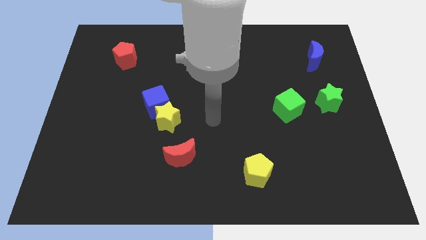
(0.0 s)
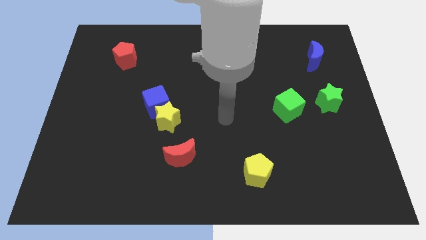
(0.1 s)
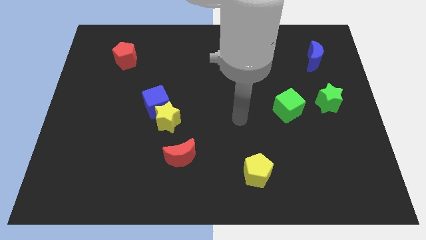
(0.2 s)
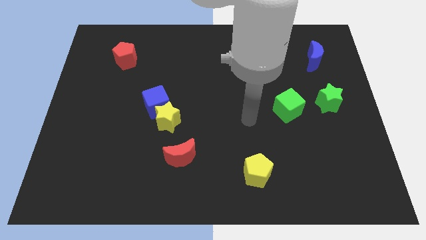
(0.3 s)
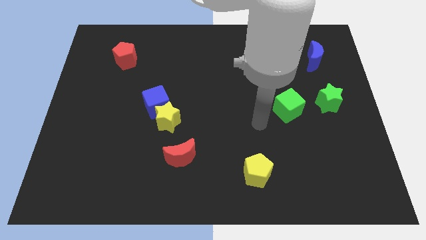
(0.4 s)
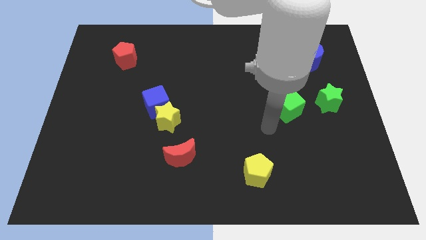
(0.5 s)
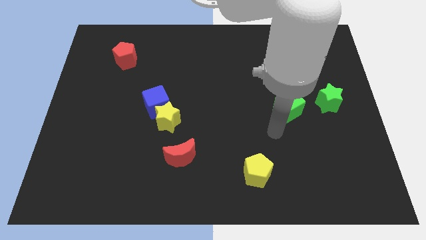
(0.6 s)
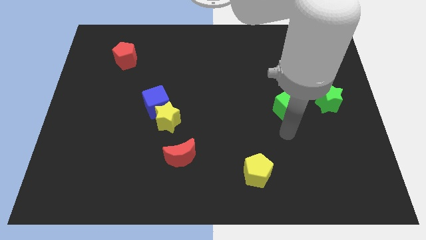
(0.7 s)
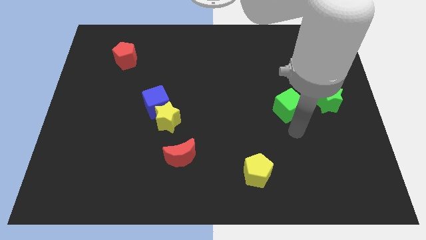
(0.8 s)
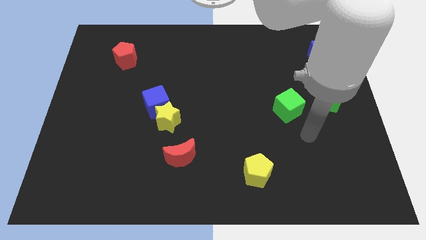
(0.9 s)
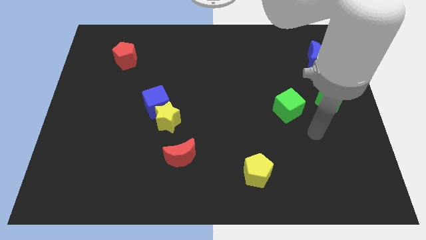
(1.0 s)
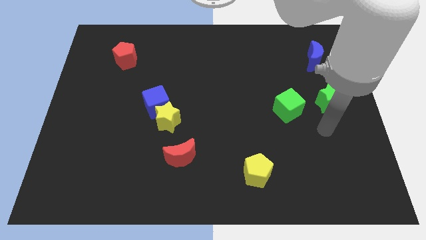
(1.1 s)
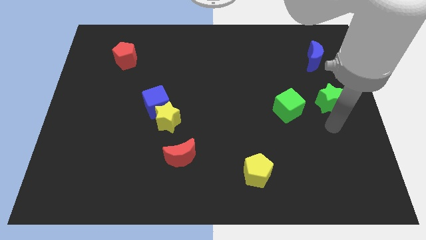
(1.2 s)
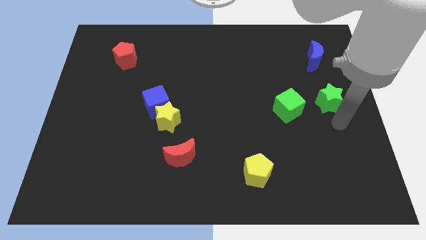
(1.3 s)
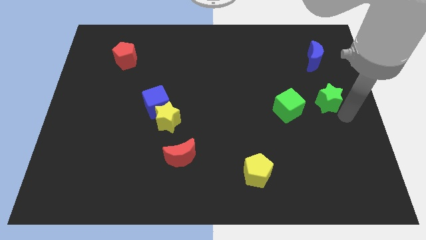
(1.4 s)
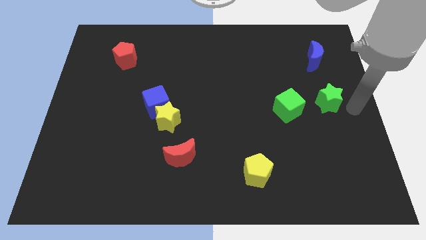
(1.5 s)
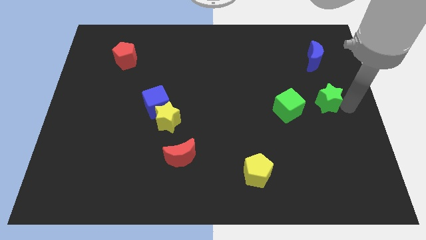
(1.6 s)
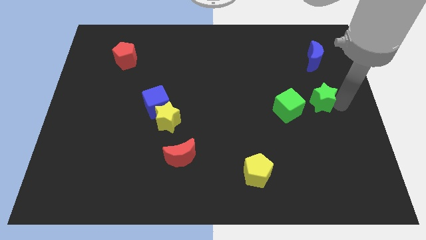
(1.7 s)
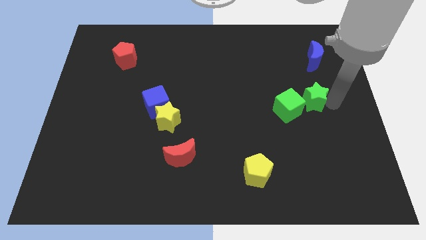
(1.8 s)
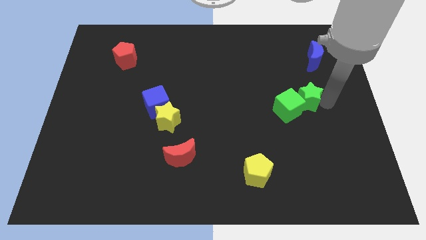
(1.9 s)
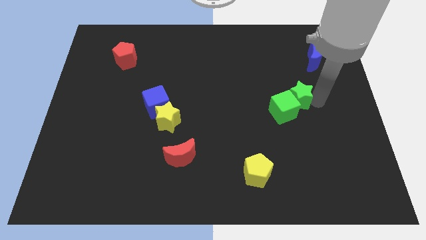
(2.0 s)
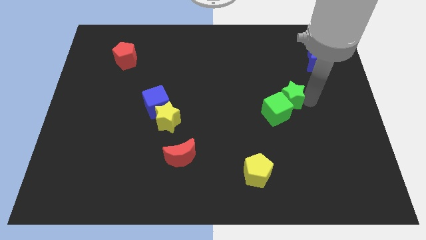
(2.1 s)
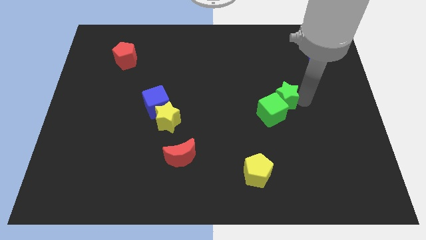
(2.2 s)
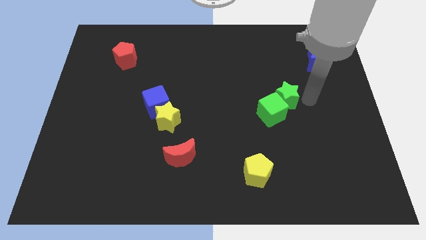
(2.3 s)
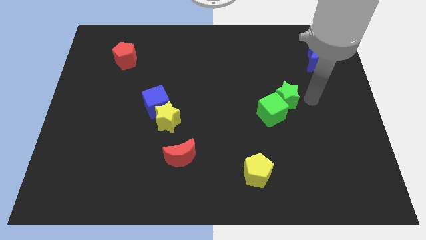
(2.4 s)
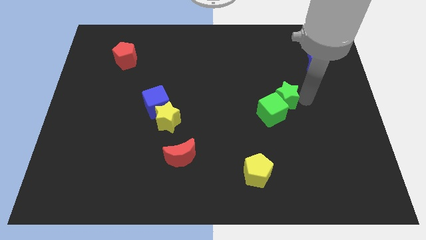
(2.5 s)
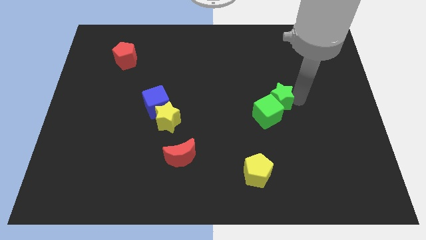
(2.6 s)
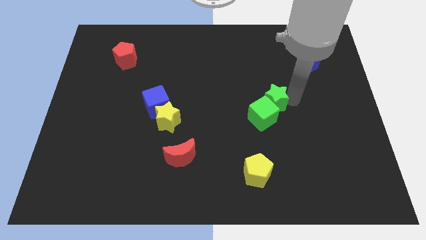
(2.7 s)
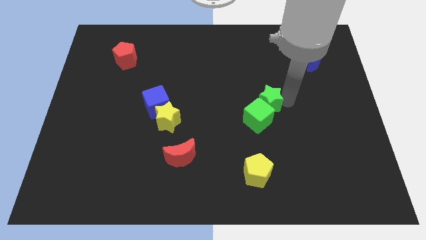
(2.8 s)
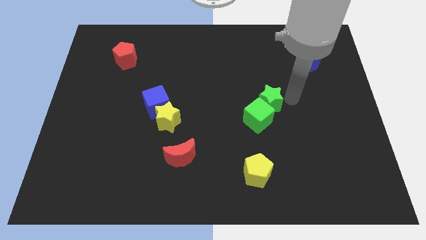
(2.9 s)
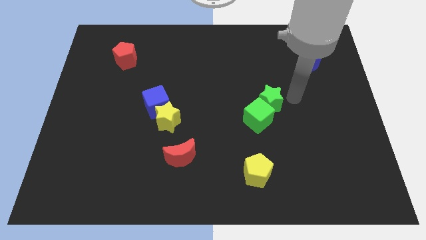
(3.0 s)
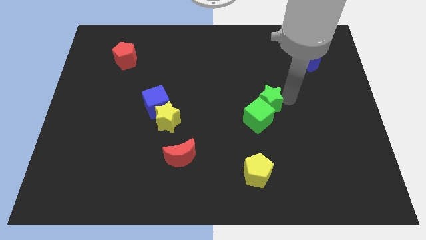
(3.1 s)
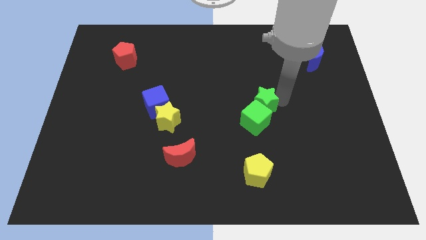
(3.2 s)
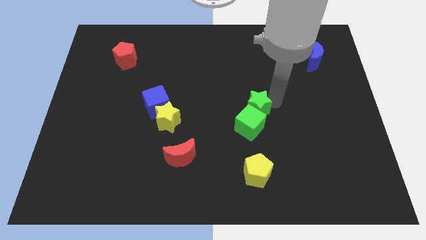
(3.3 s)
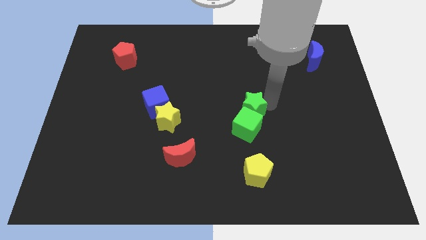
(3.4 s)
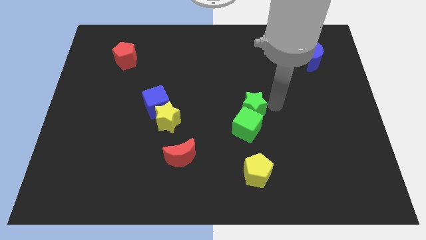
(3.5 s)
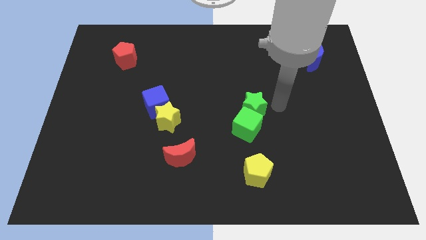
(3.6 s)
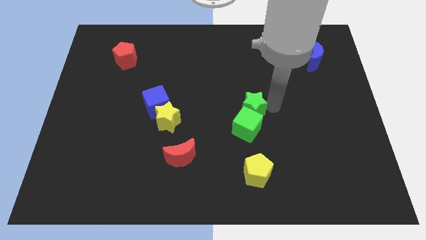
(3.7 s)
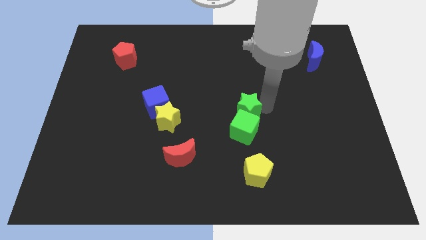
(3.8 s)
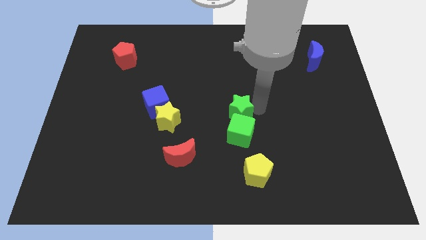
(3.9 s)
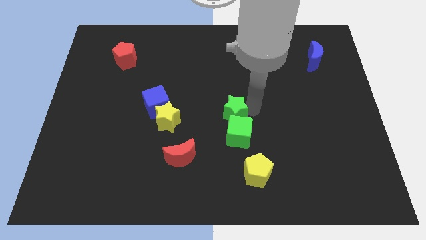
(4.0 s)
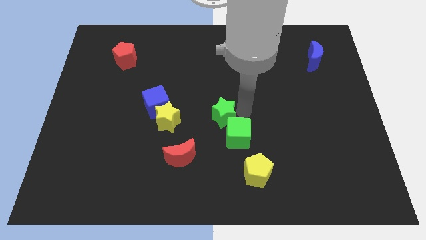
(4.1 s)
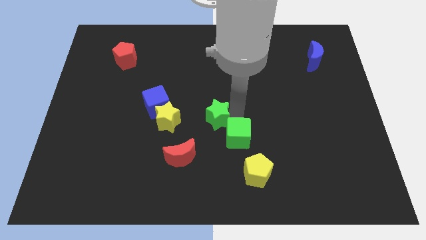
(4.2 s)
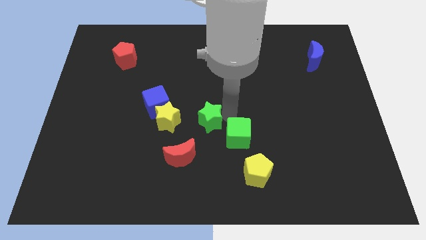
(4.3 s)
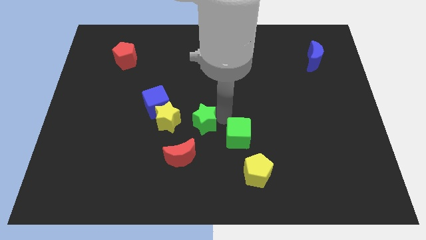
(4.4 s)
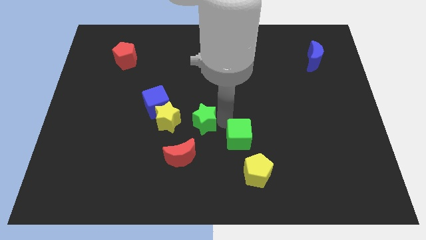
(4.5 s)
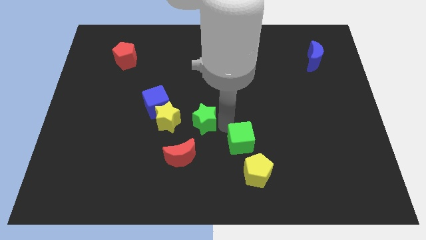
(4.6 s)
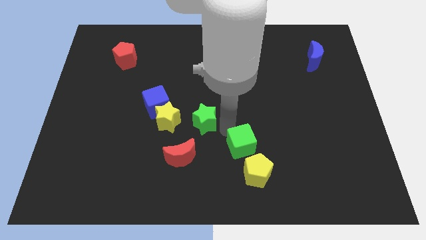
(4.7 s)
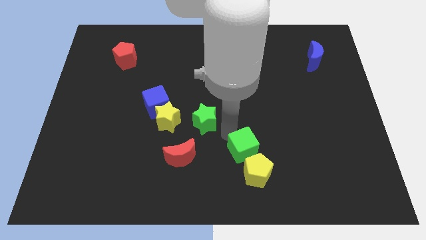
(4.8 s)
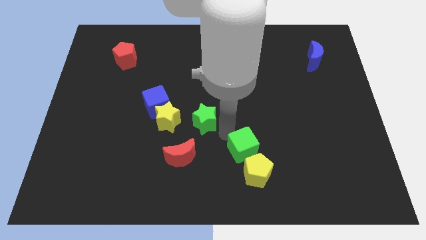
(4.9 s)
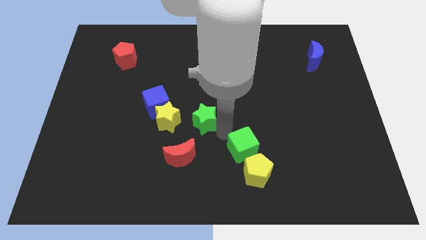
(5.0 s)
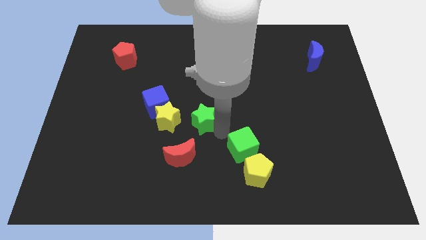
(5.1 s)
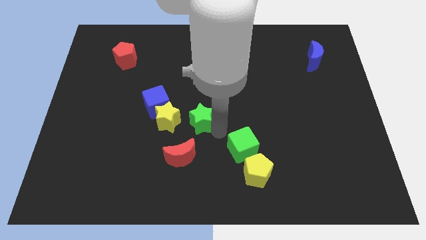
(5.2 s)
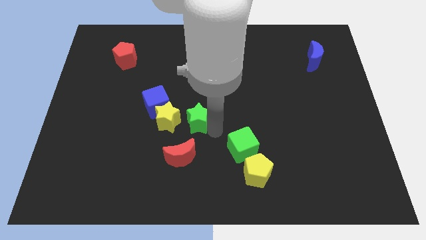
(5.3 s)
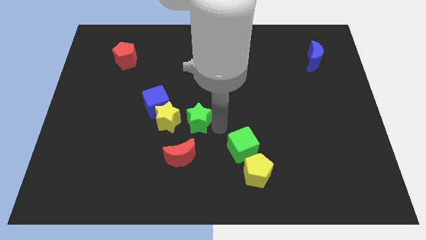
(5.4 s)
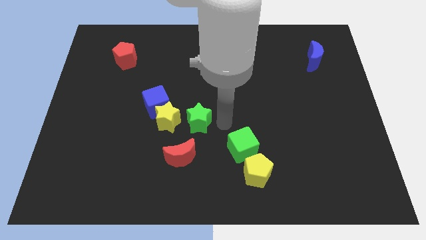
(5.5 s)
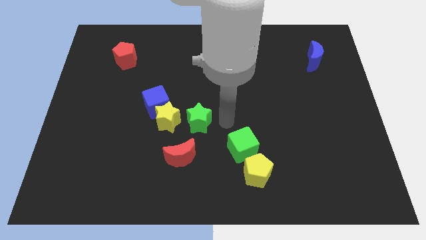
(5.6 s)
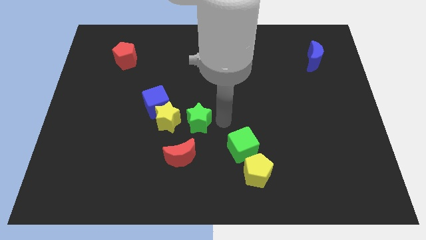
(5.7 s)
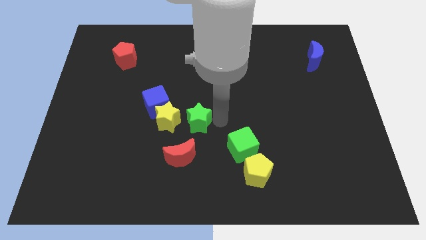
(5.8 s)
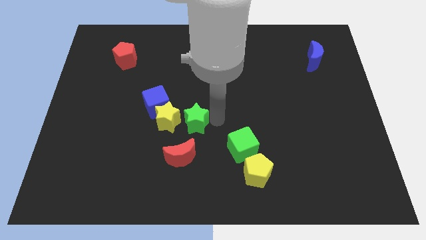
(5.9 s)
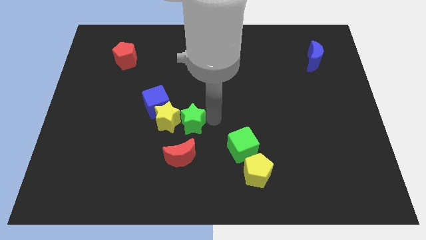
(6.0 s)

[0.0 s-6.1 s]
push the green star next to the yellow star

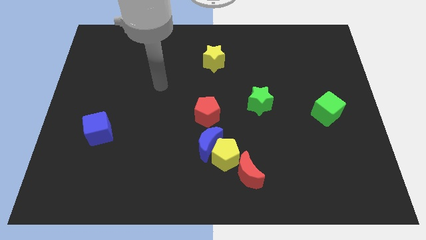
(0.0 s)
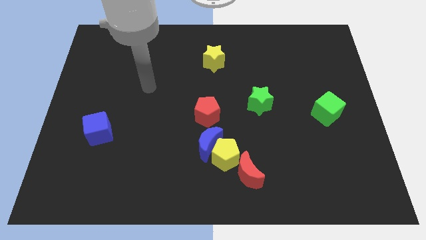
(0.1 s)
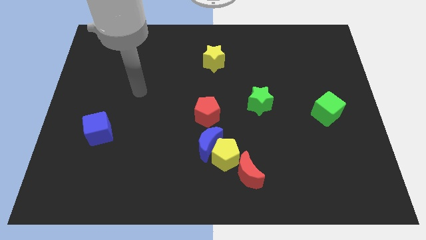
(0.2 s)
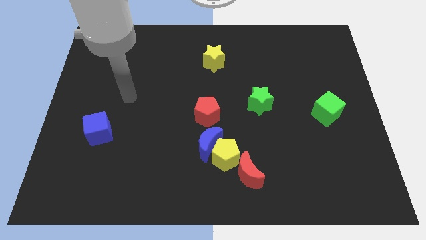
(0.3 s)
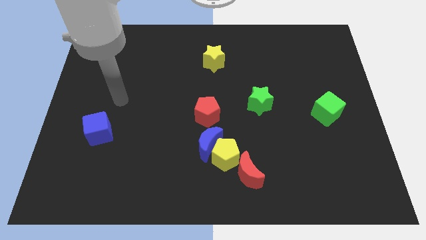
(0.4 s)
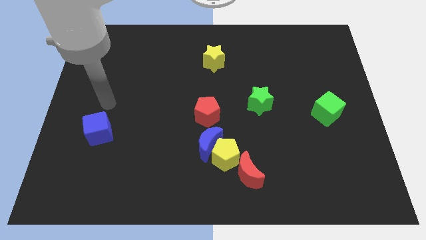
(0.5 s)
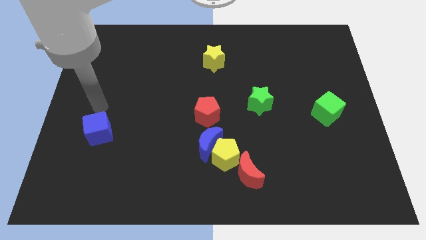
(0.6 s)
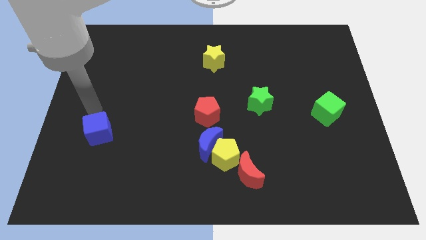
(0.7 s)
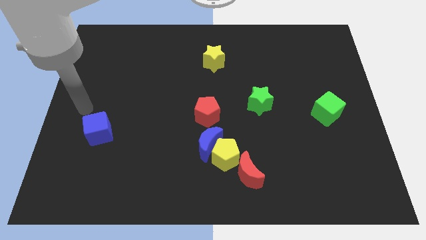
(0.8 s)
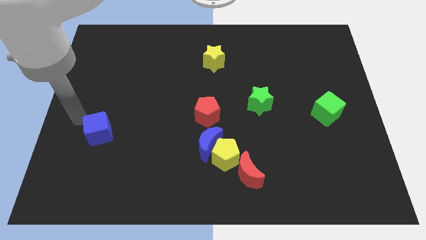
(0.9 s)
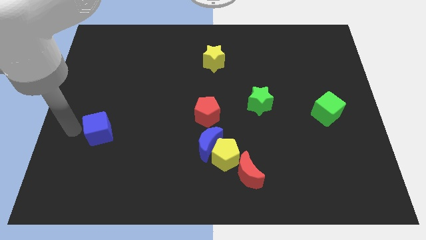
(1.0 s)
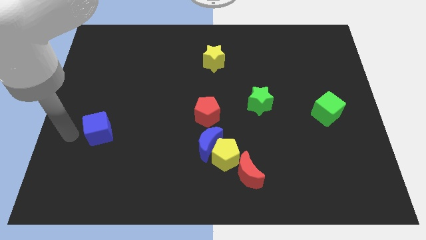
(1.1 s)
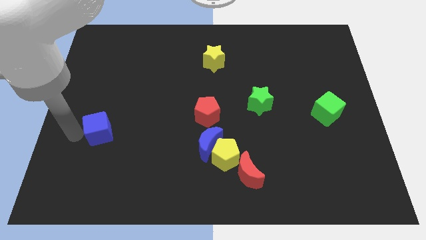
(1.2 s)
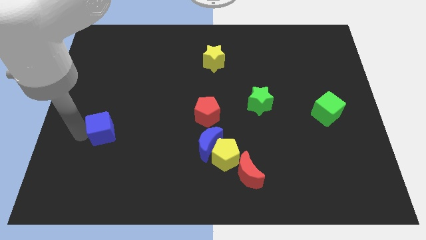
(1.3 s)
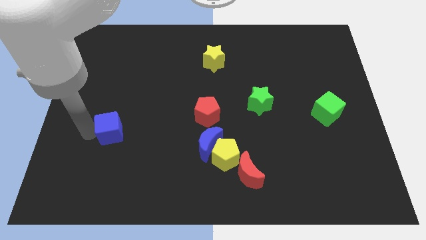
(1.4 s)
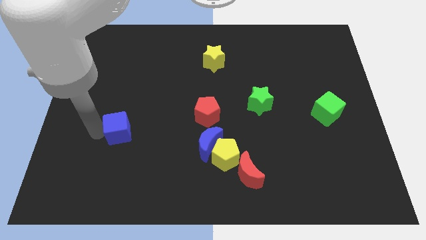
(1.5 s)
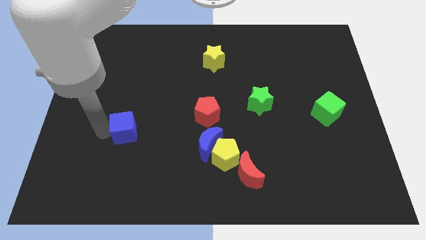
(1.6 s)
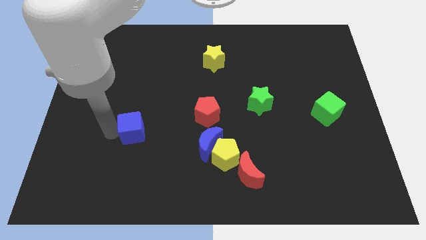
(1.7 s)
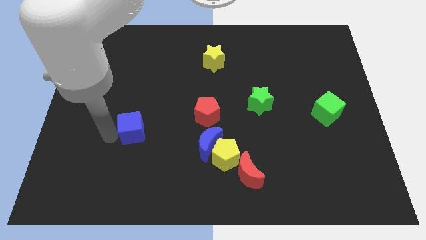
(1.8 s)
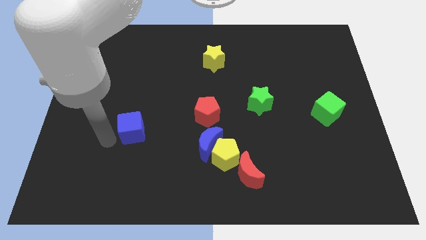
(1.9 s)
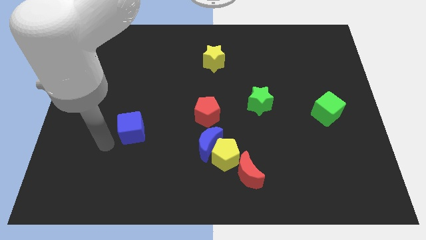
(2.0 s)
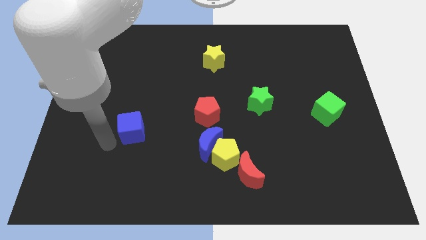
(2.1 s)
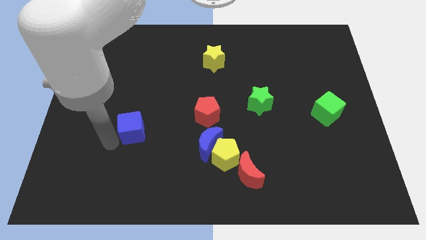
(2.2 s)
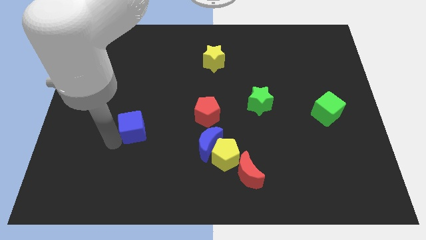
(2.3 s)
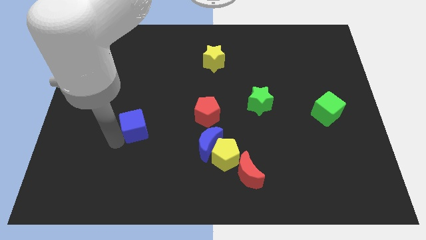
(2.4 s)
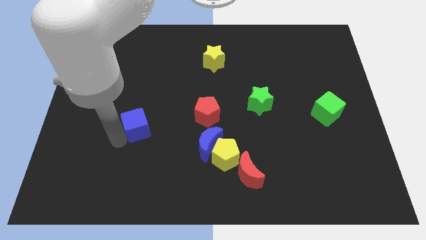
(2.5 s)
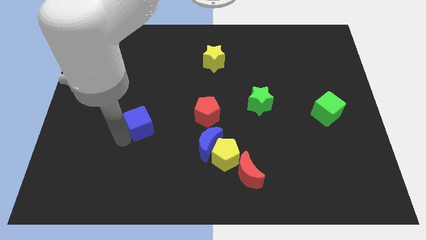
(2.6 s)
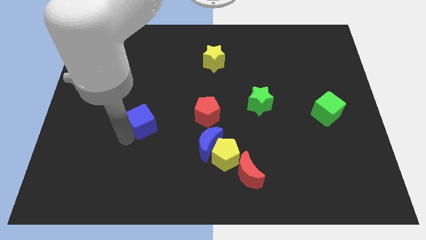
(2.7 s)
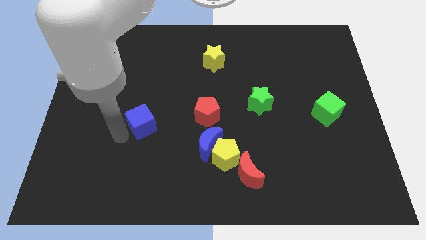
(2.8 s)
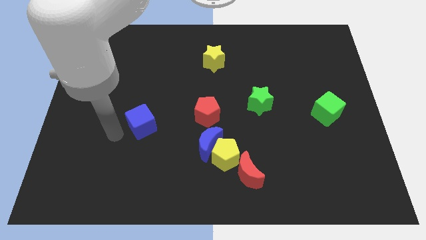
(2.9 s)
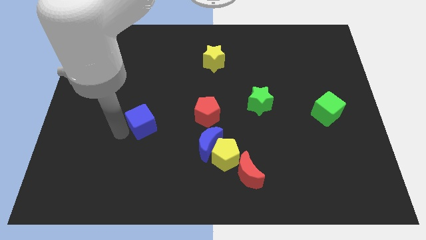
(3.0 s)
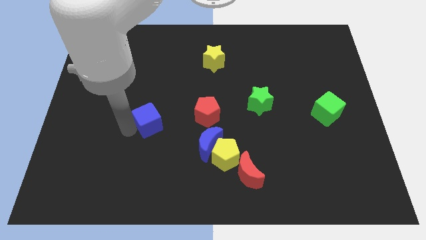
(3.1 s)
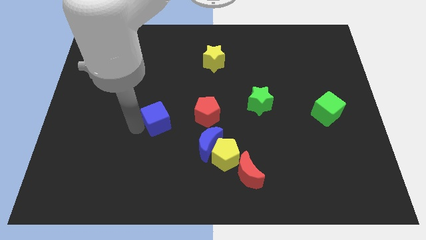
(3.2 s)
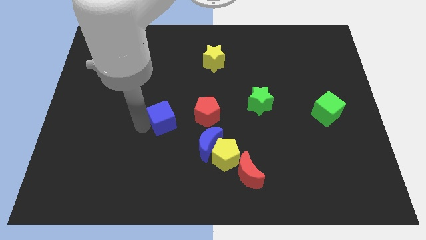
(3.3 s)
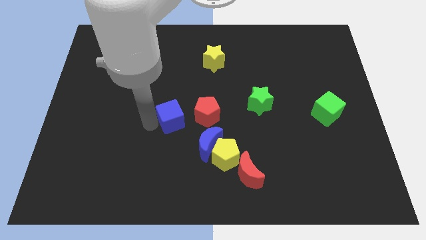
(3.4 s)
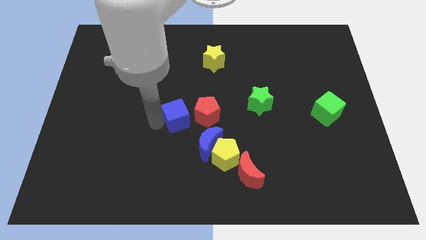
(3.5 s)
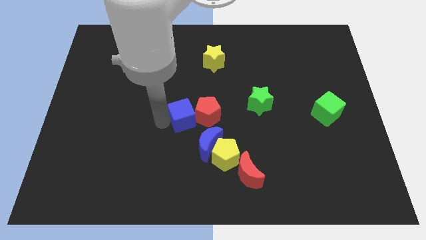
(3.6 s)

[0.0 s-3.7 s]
put the blue cube towards the red pentagon
